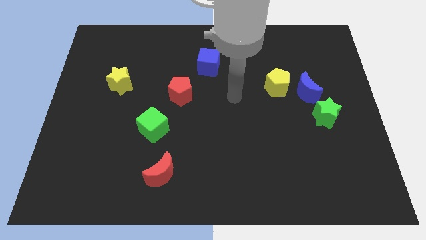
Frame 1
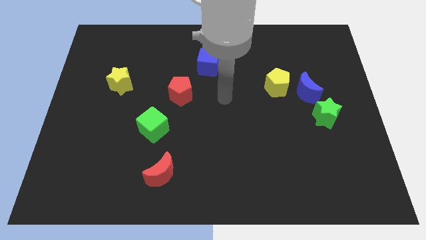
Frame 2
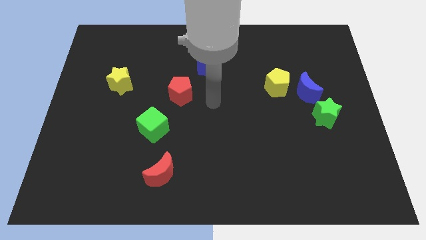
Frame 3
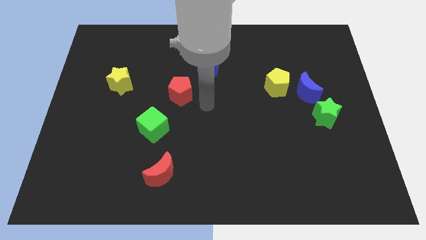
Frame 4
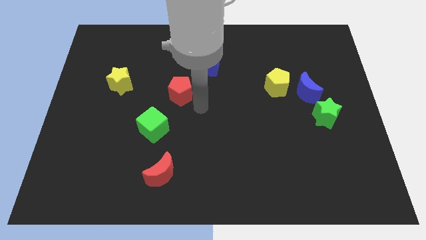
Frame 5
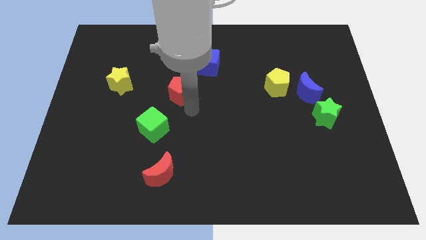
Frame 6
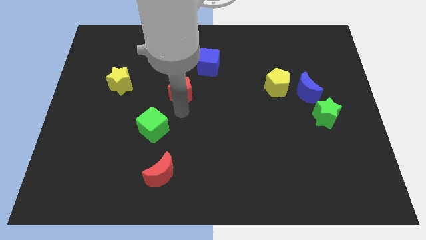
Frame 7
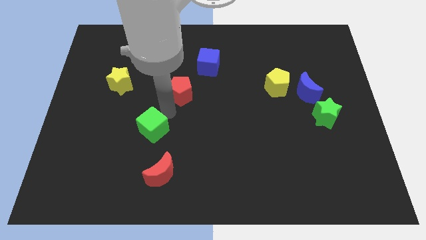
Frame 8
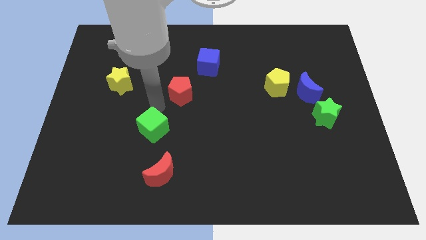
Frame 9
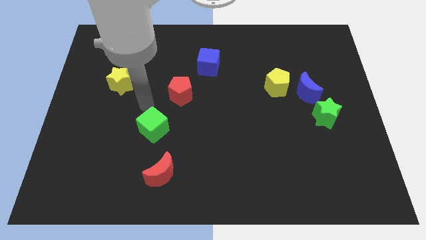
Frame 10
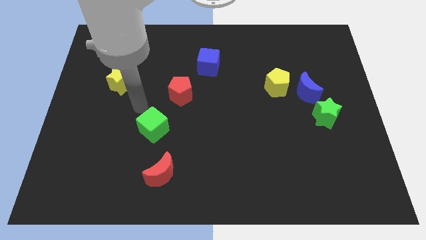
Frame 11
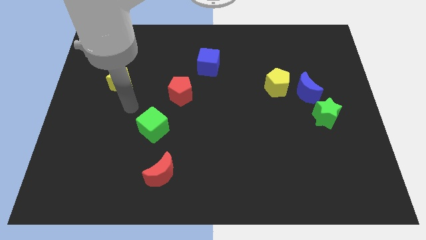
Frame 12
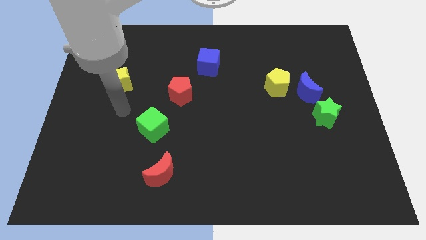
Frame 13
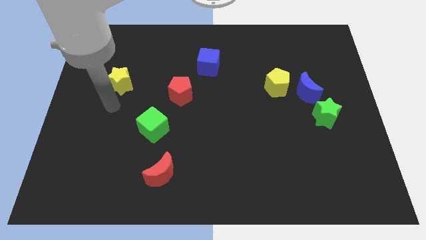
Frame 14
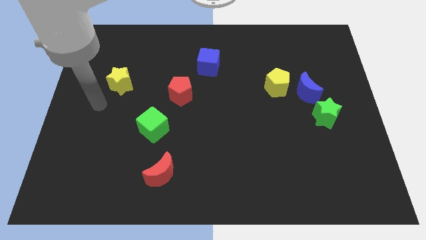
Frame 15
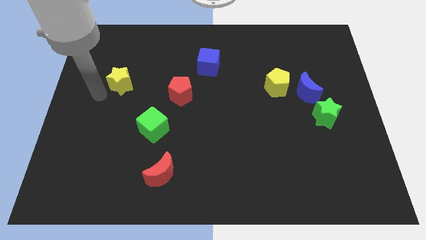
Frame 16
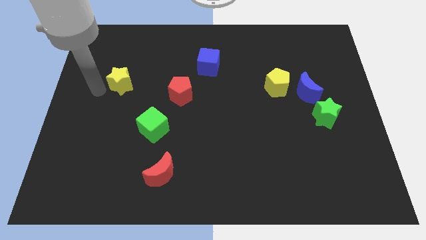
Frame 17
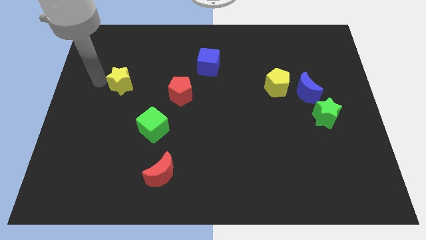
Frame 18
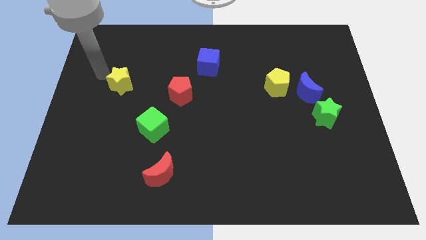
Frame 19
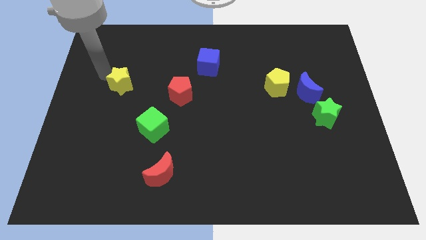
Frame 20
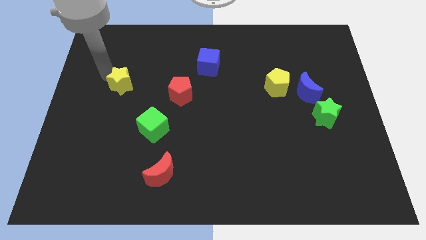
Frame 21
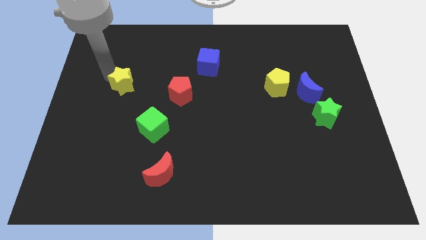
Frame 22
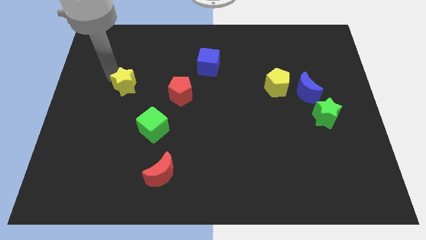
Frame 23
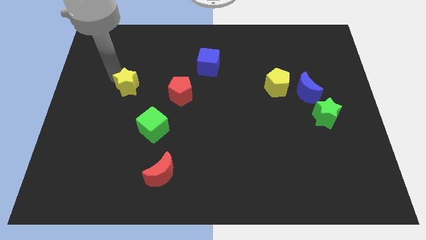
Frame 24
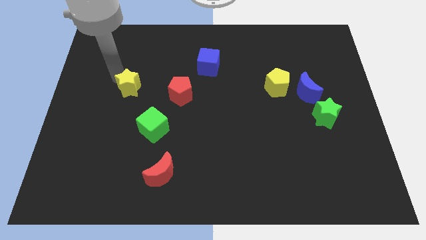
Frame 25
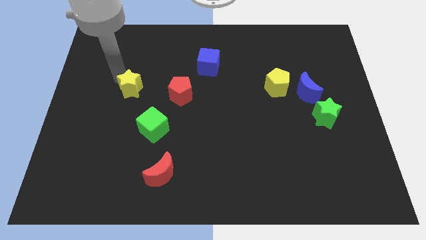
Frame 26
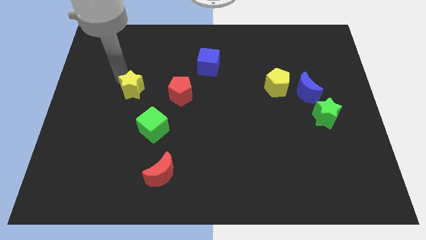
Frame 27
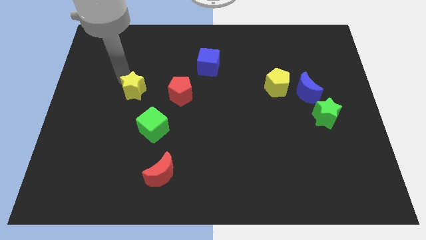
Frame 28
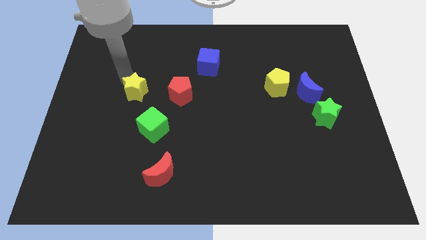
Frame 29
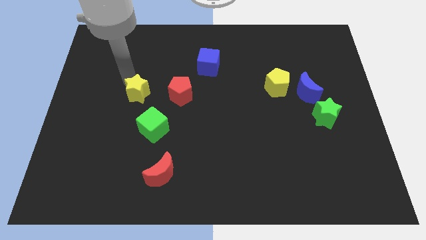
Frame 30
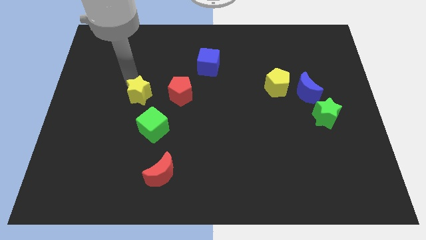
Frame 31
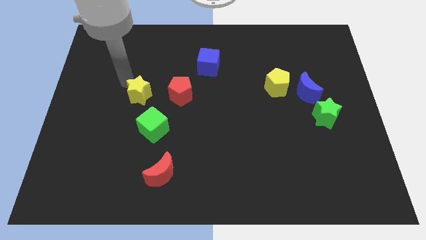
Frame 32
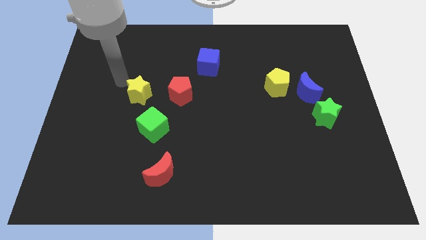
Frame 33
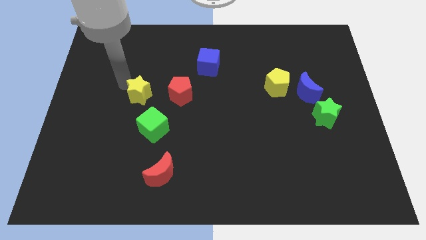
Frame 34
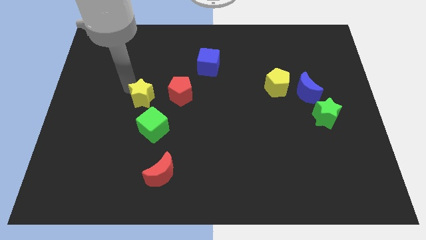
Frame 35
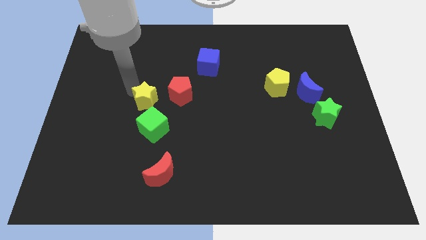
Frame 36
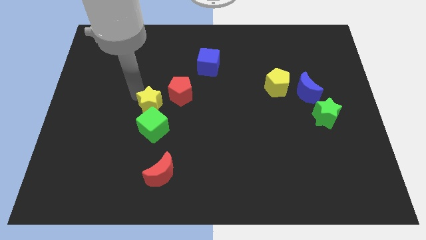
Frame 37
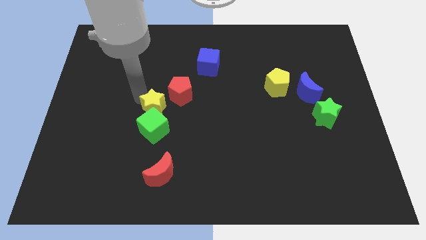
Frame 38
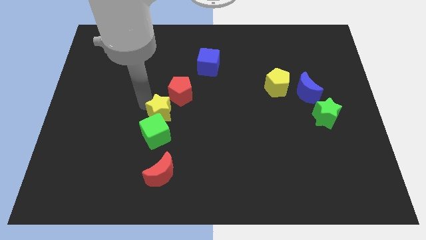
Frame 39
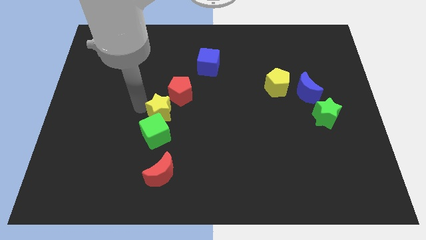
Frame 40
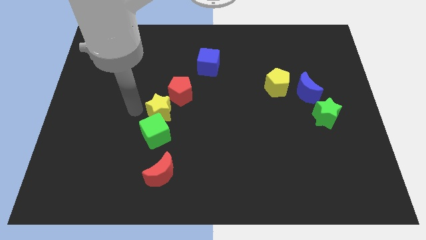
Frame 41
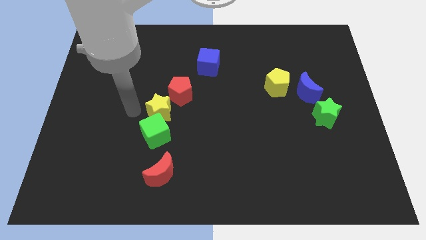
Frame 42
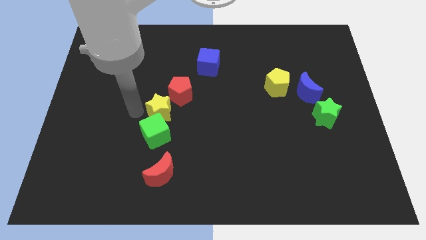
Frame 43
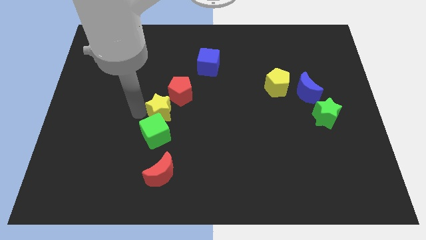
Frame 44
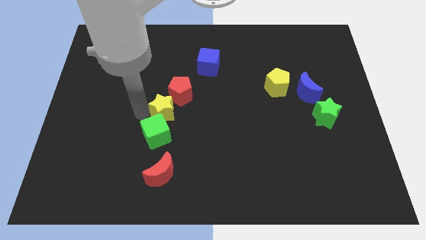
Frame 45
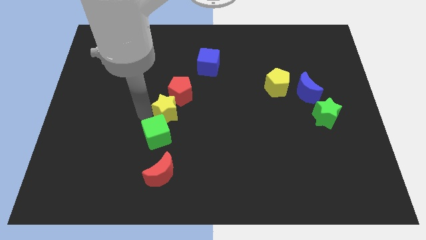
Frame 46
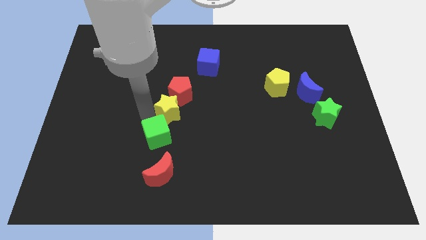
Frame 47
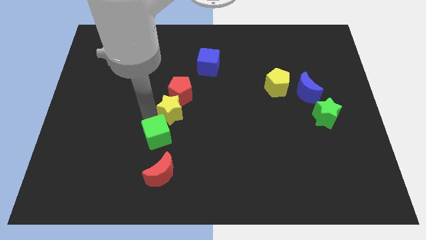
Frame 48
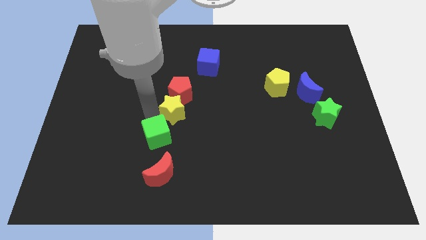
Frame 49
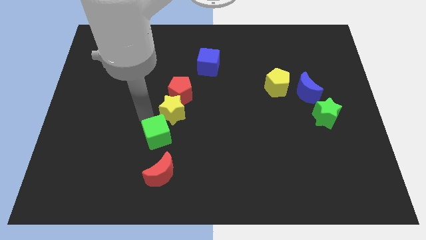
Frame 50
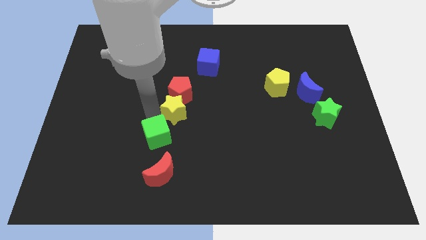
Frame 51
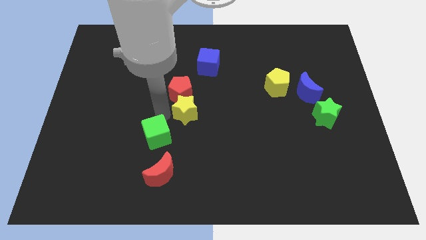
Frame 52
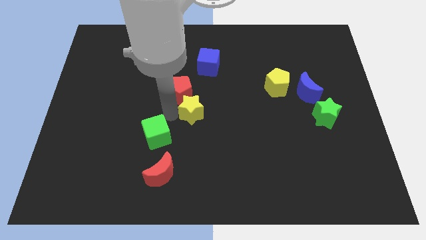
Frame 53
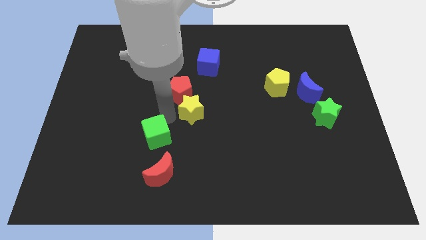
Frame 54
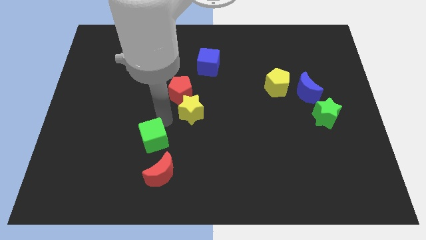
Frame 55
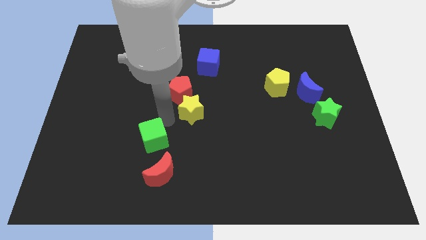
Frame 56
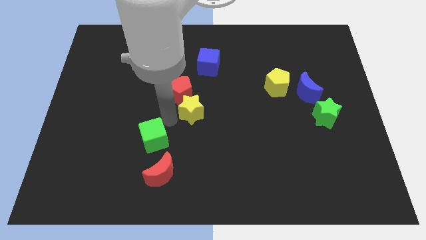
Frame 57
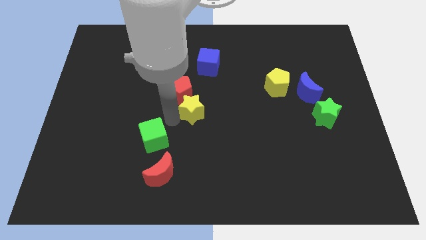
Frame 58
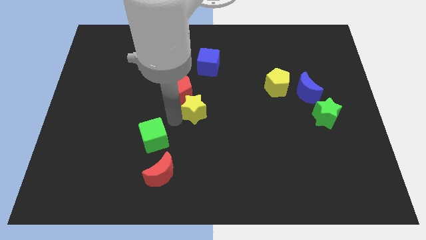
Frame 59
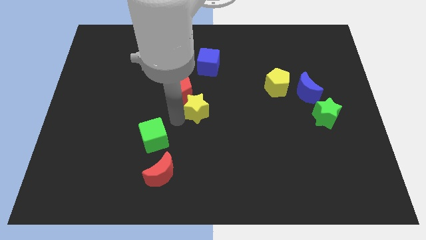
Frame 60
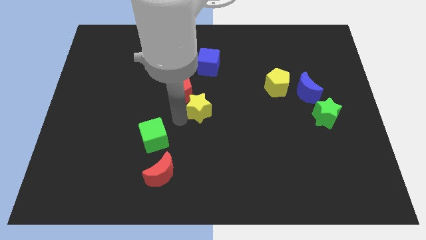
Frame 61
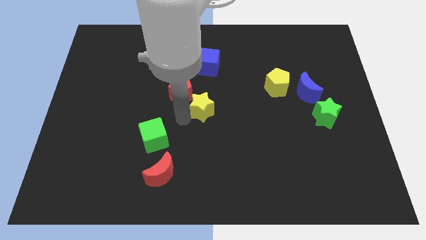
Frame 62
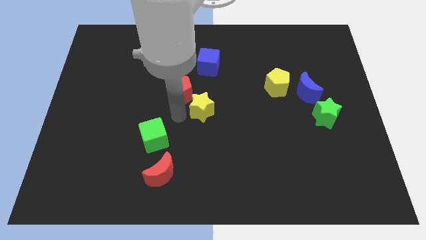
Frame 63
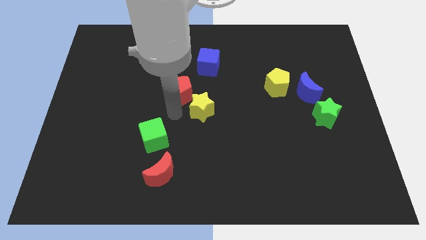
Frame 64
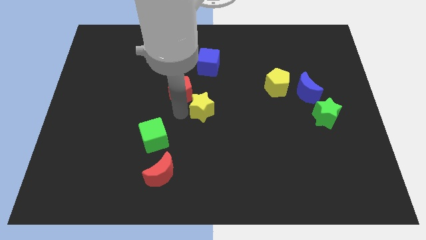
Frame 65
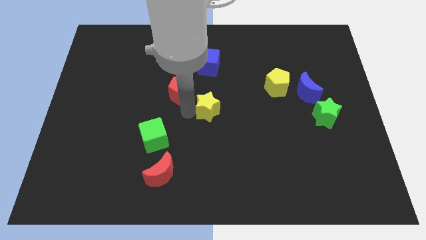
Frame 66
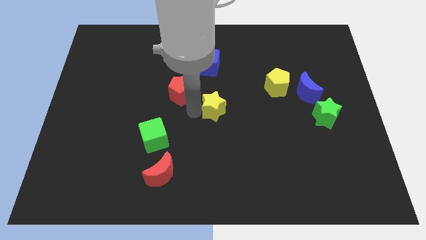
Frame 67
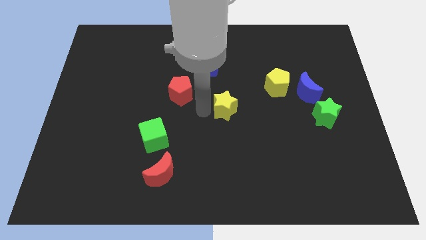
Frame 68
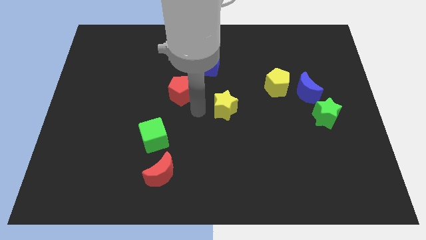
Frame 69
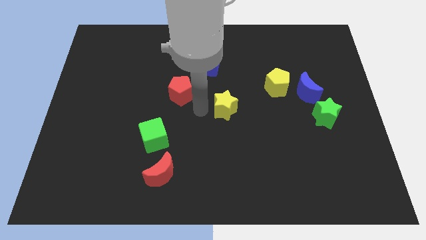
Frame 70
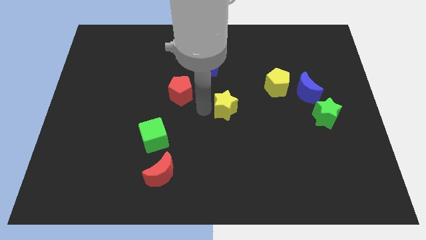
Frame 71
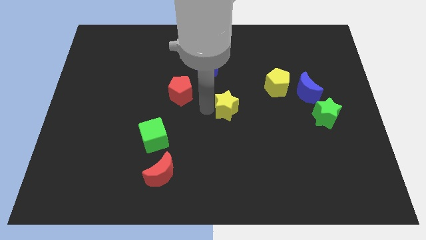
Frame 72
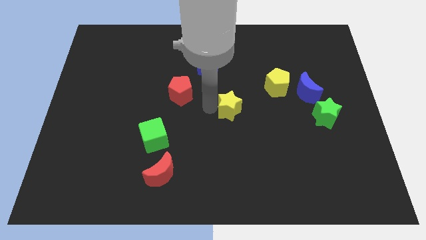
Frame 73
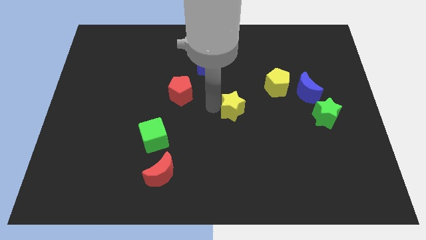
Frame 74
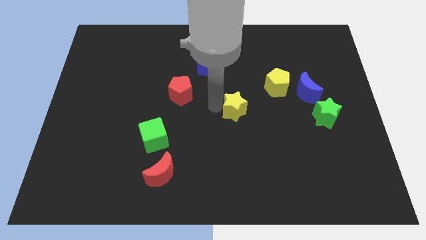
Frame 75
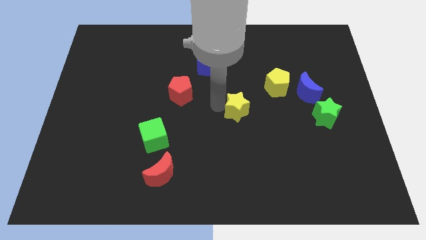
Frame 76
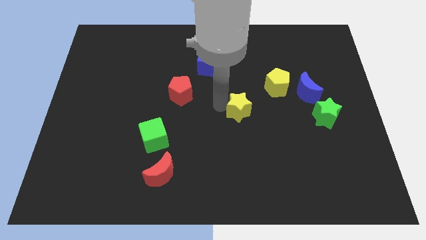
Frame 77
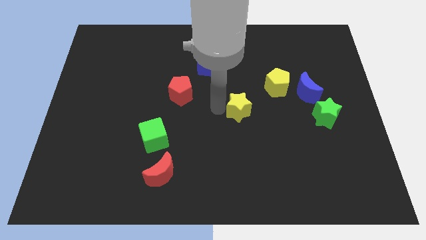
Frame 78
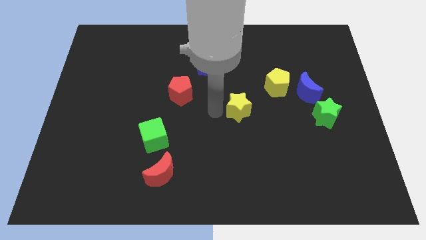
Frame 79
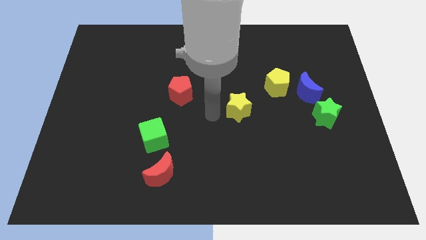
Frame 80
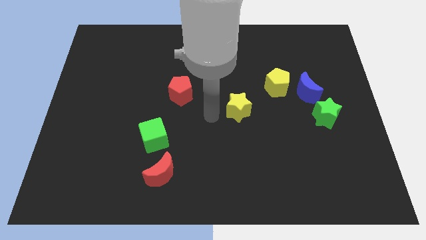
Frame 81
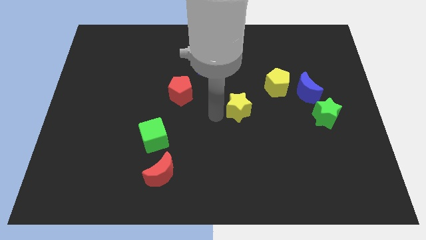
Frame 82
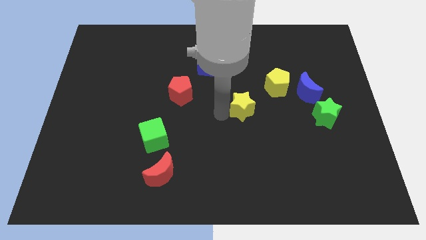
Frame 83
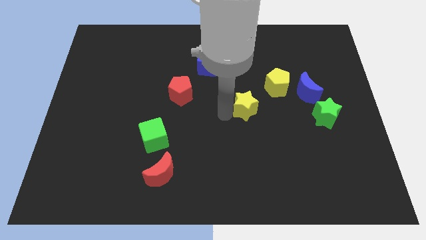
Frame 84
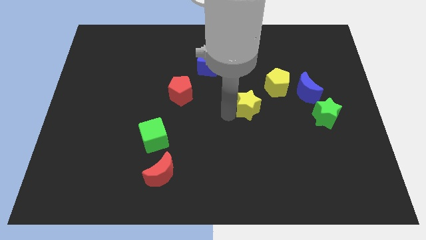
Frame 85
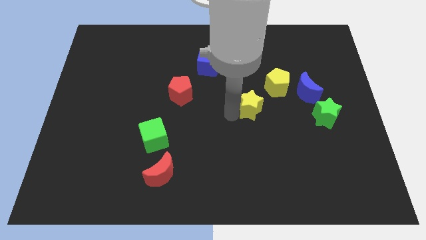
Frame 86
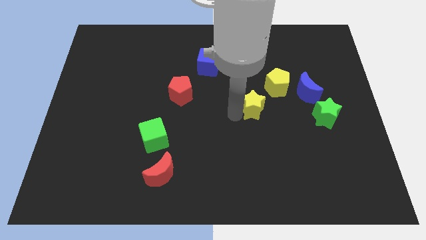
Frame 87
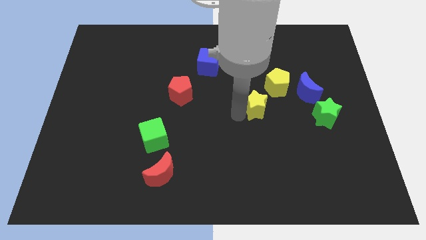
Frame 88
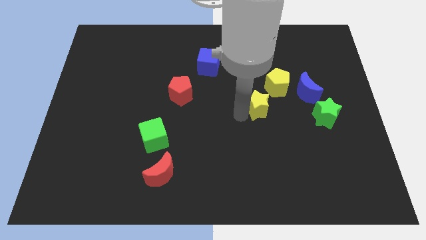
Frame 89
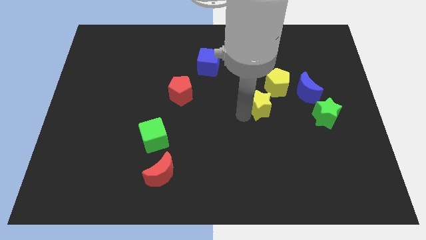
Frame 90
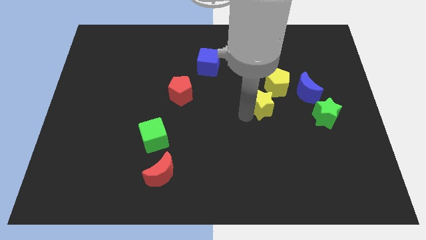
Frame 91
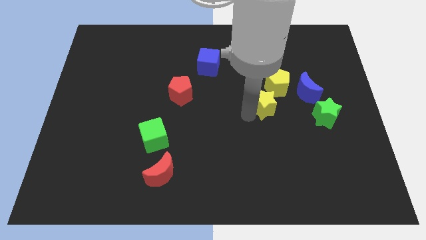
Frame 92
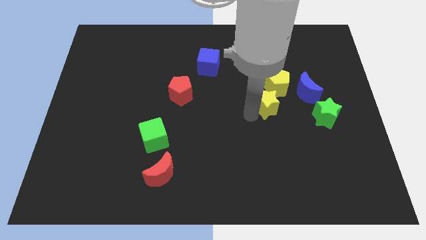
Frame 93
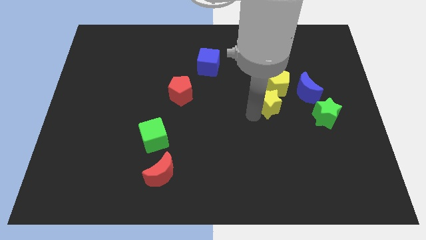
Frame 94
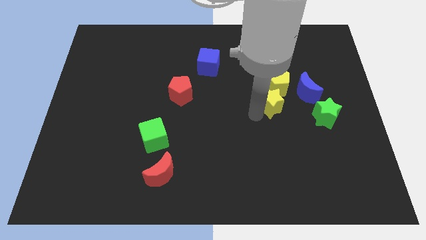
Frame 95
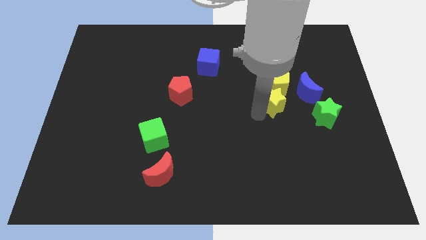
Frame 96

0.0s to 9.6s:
put the yellow star close to the yellow pentagon
